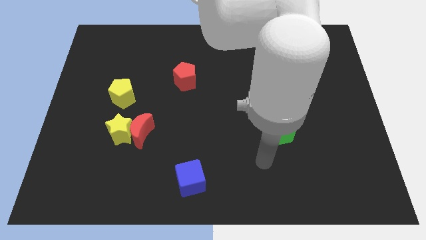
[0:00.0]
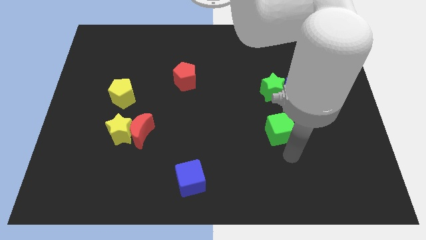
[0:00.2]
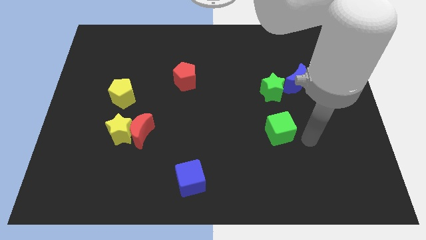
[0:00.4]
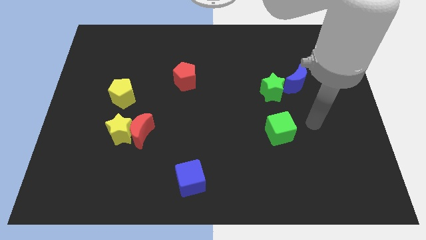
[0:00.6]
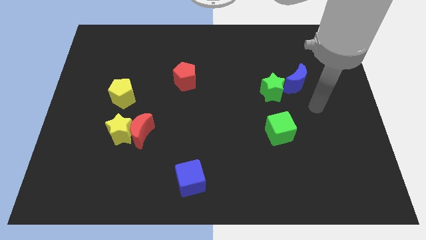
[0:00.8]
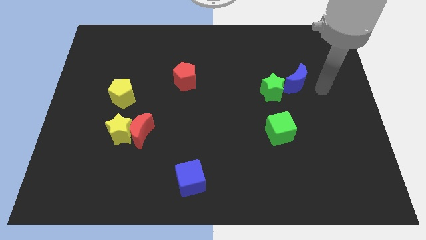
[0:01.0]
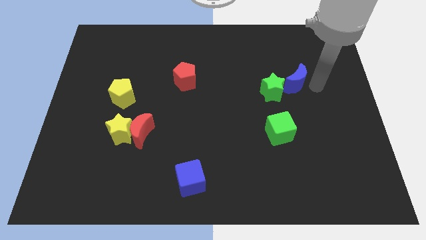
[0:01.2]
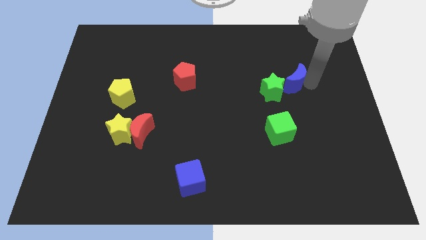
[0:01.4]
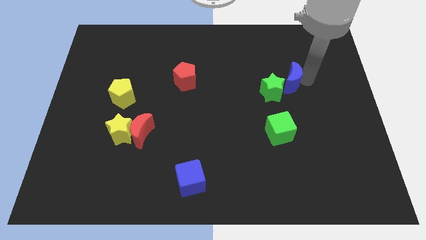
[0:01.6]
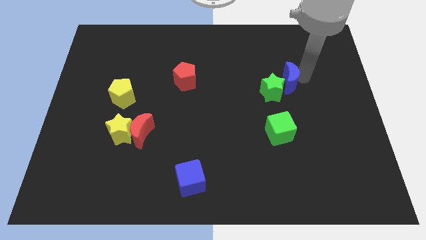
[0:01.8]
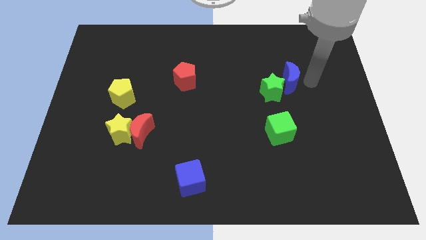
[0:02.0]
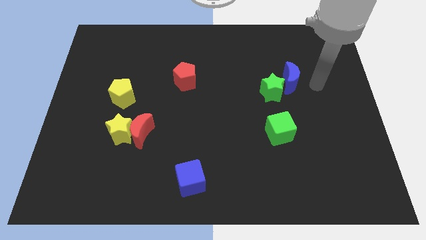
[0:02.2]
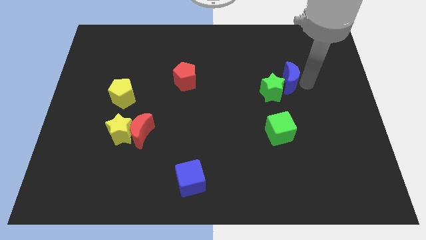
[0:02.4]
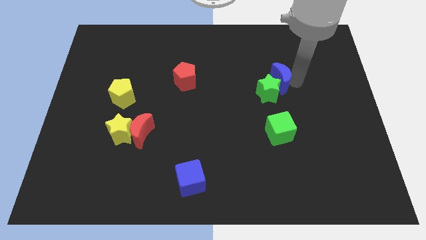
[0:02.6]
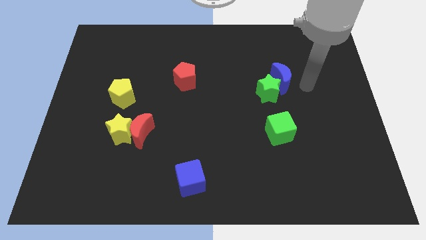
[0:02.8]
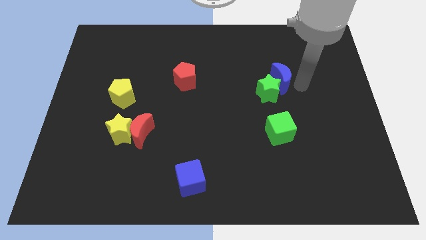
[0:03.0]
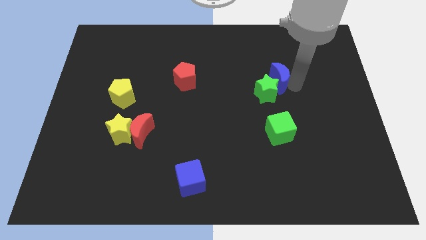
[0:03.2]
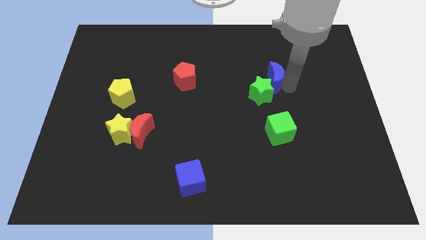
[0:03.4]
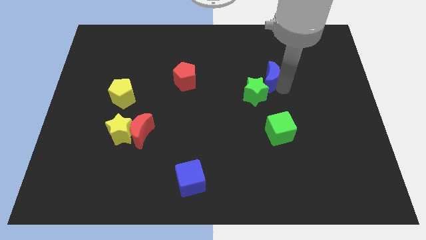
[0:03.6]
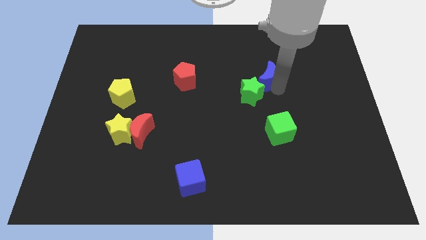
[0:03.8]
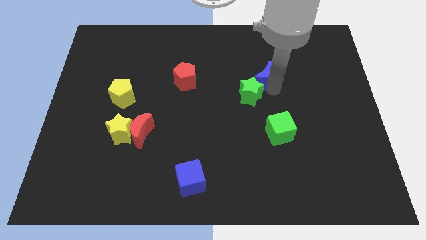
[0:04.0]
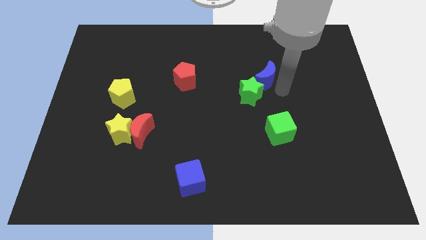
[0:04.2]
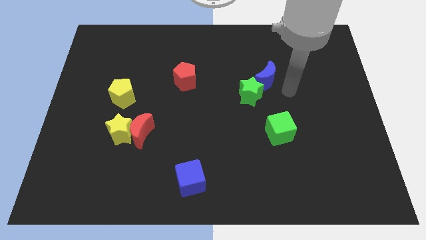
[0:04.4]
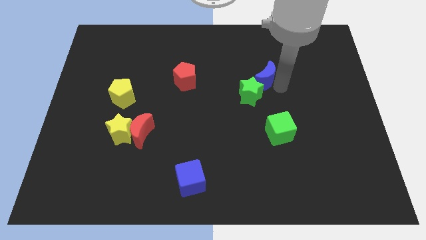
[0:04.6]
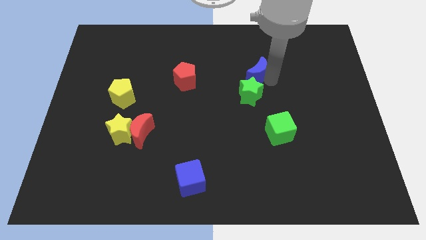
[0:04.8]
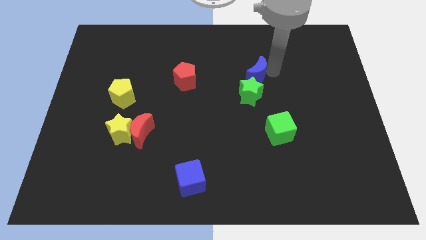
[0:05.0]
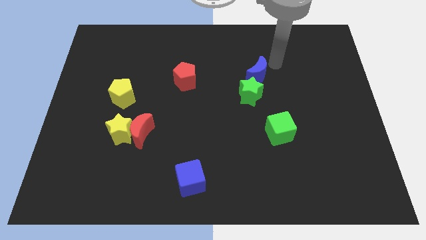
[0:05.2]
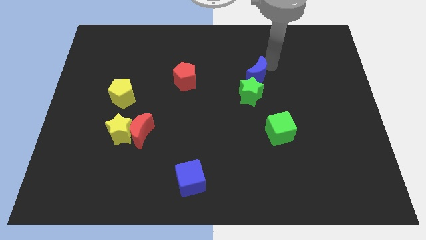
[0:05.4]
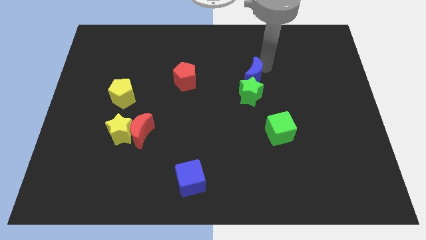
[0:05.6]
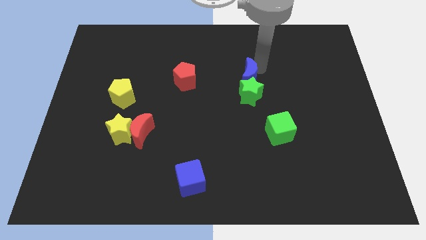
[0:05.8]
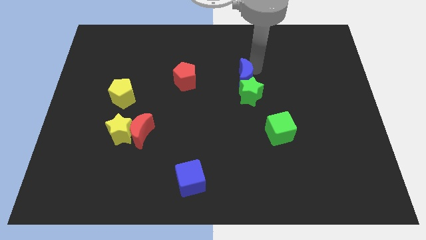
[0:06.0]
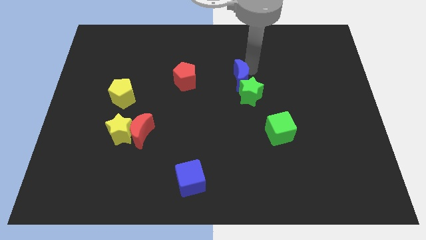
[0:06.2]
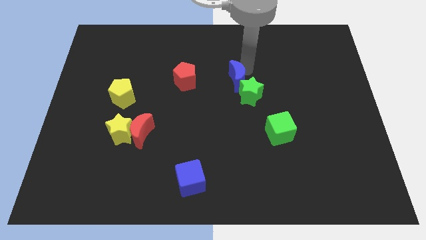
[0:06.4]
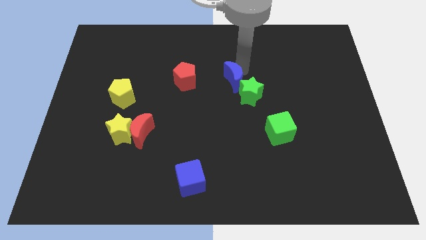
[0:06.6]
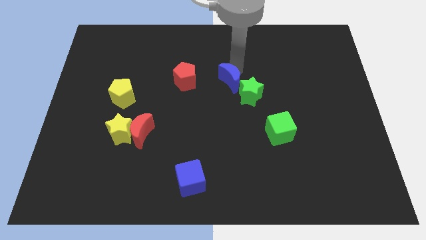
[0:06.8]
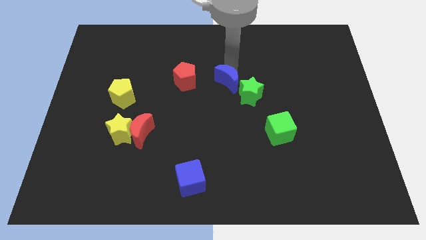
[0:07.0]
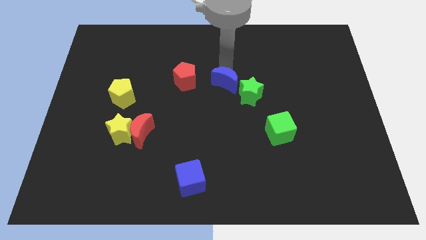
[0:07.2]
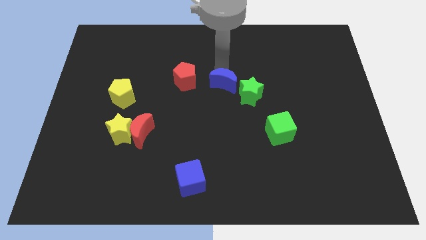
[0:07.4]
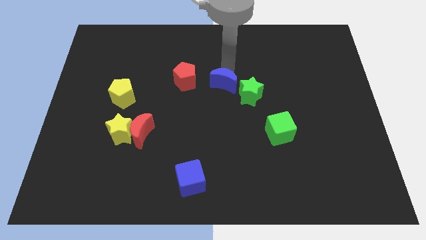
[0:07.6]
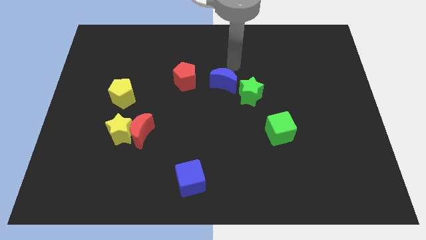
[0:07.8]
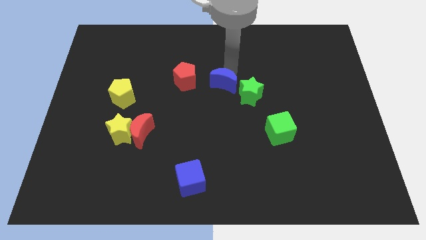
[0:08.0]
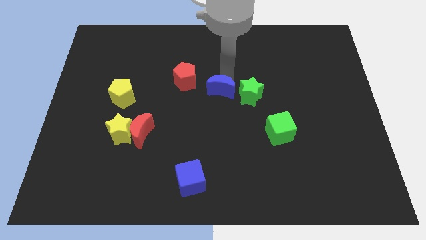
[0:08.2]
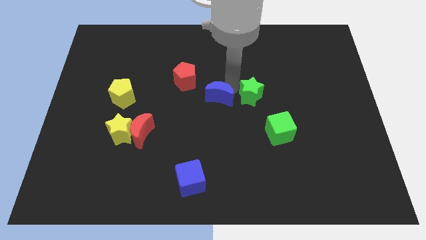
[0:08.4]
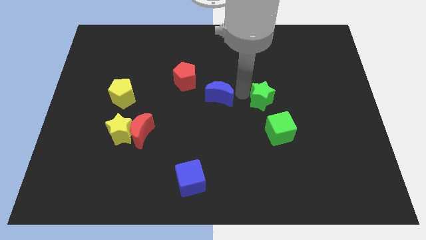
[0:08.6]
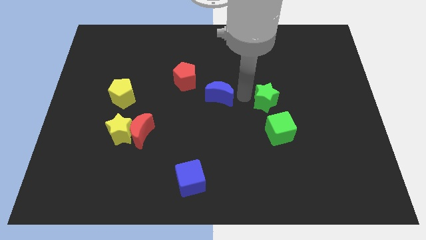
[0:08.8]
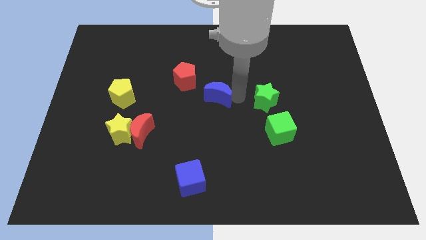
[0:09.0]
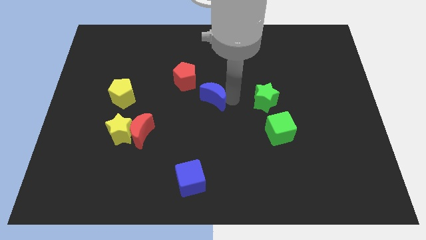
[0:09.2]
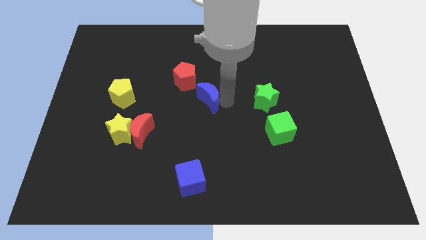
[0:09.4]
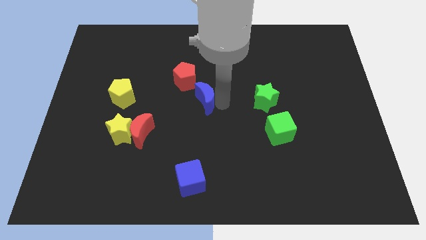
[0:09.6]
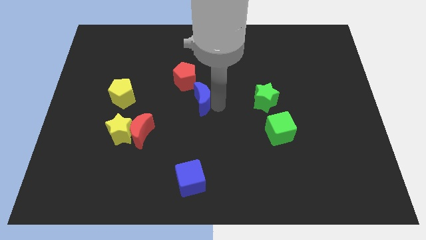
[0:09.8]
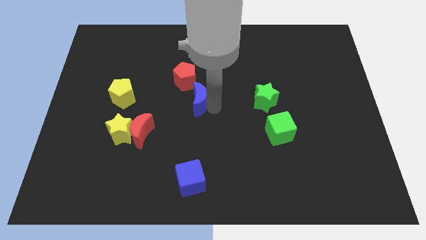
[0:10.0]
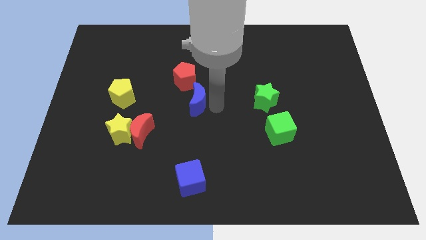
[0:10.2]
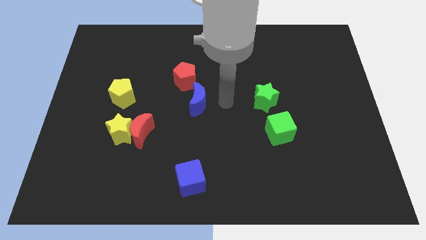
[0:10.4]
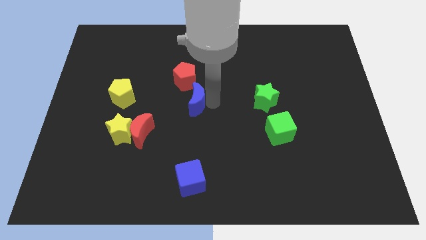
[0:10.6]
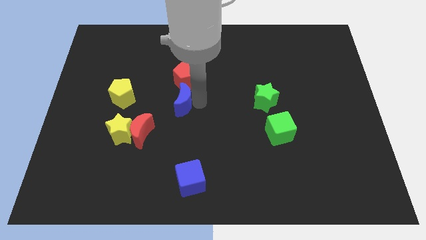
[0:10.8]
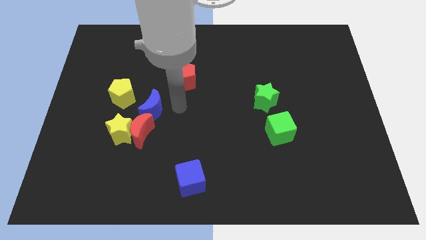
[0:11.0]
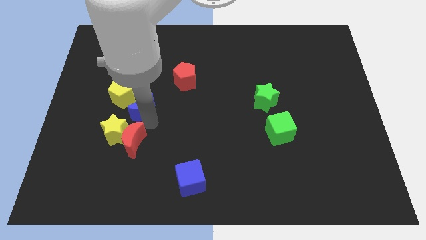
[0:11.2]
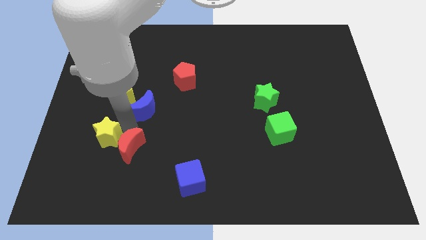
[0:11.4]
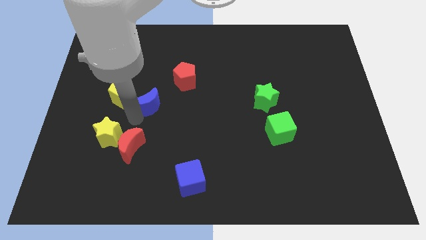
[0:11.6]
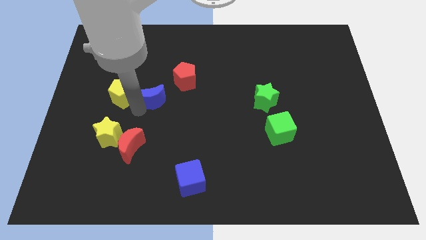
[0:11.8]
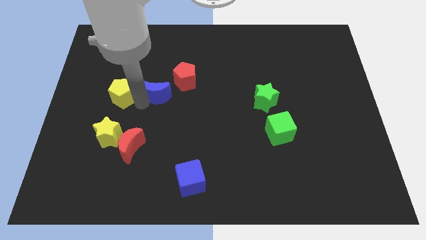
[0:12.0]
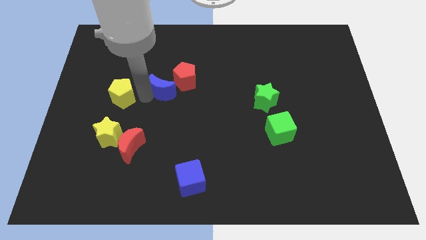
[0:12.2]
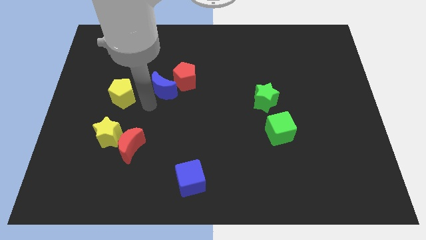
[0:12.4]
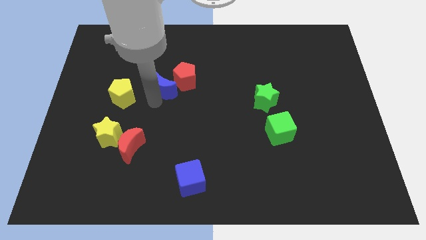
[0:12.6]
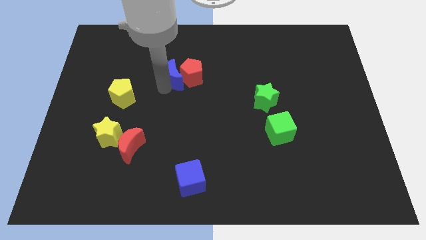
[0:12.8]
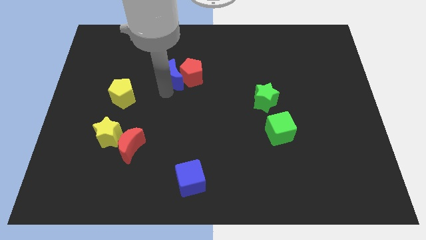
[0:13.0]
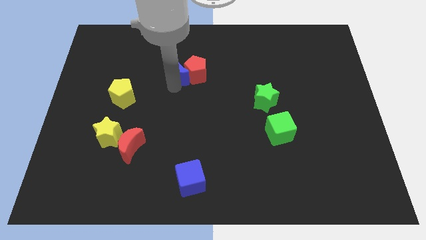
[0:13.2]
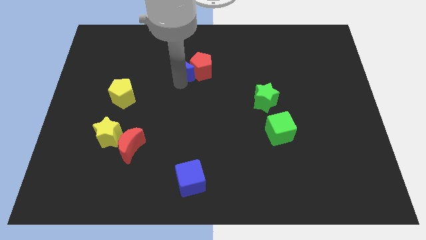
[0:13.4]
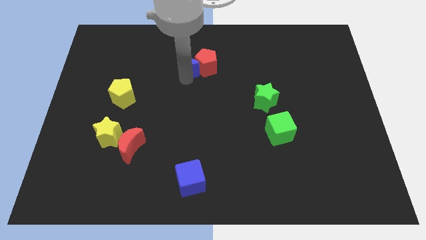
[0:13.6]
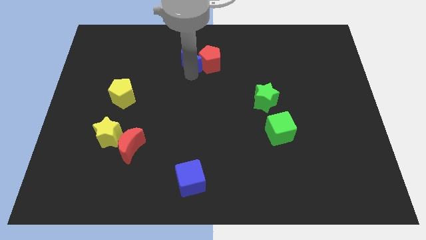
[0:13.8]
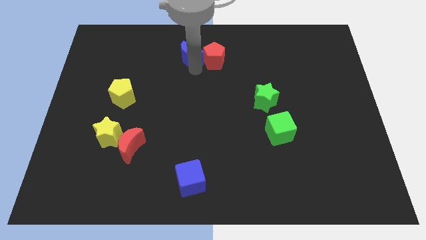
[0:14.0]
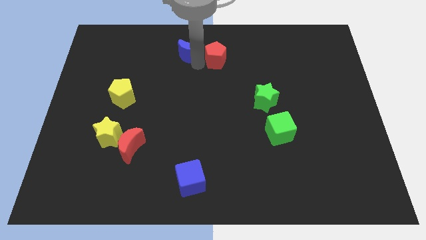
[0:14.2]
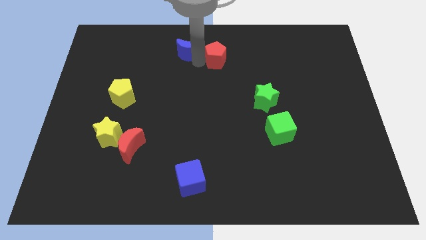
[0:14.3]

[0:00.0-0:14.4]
slide the blue moon to the towards your base

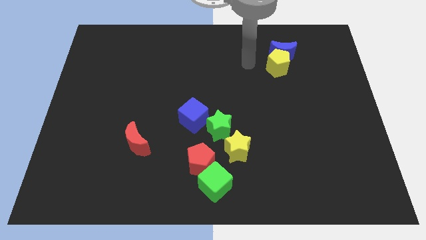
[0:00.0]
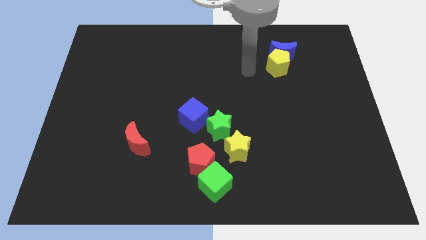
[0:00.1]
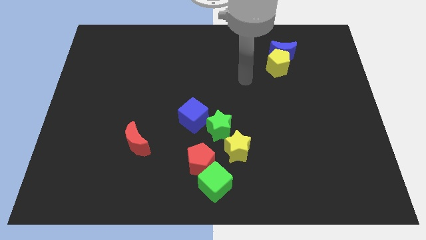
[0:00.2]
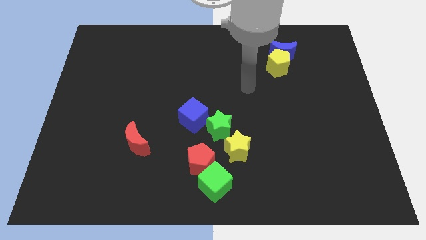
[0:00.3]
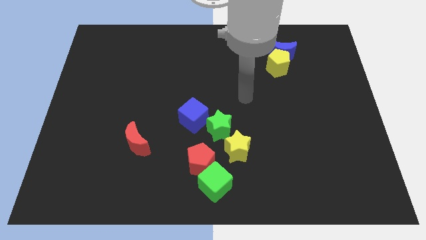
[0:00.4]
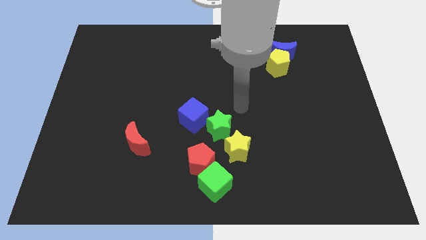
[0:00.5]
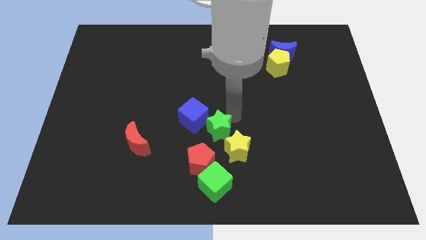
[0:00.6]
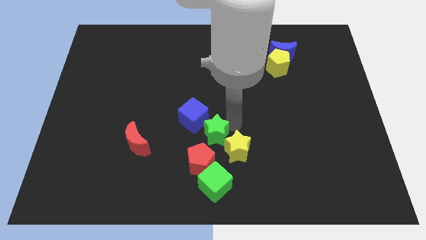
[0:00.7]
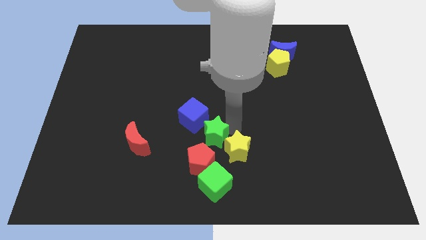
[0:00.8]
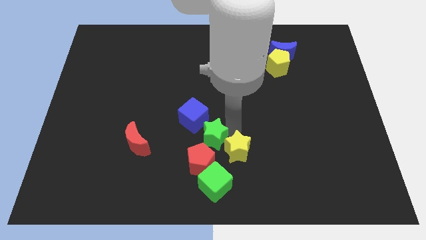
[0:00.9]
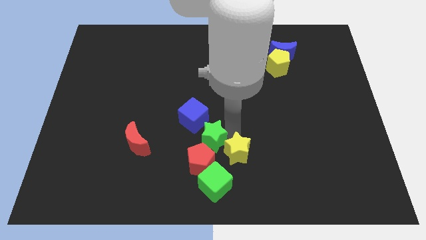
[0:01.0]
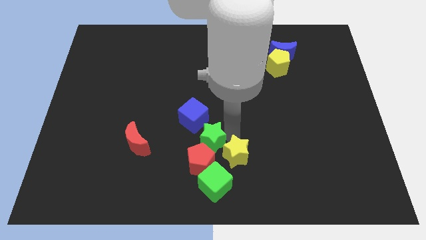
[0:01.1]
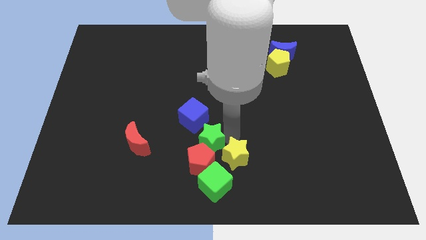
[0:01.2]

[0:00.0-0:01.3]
push the yellow star to the bottom side
